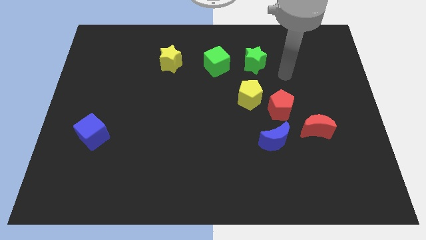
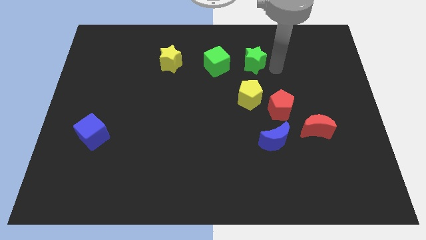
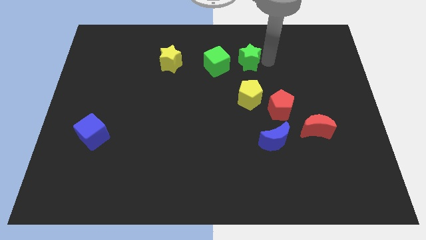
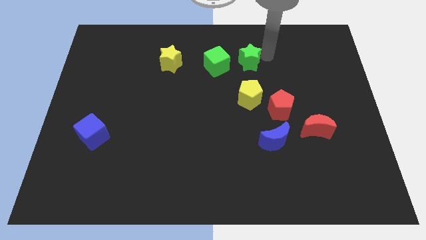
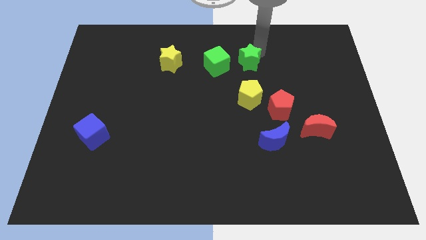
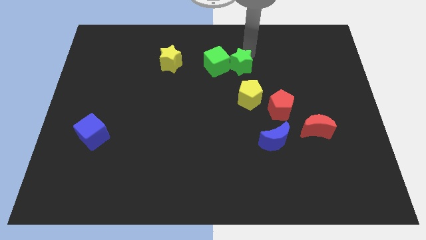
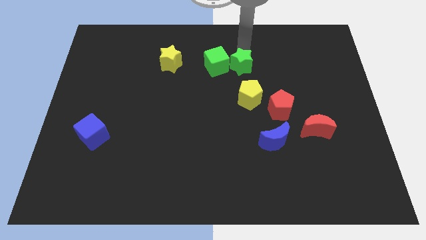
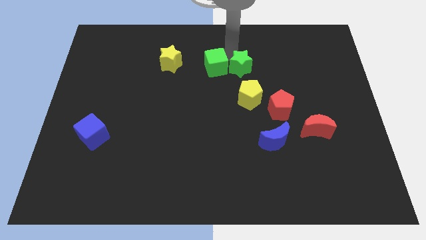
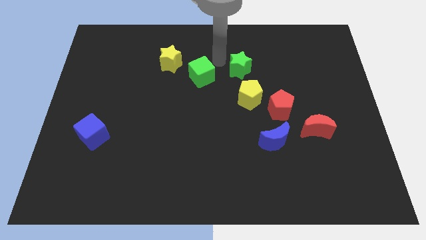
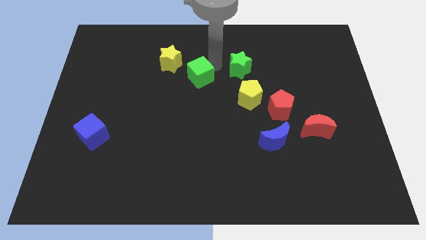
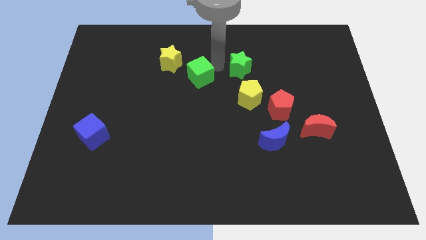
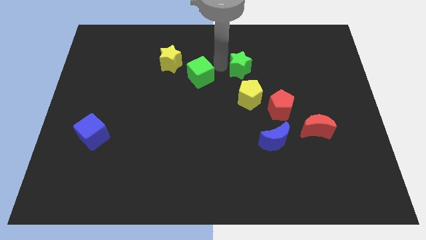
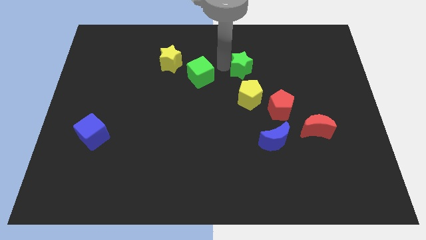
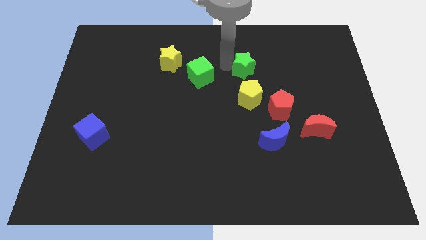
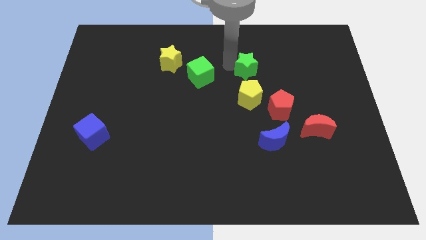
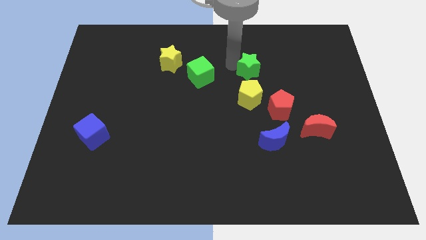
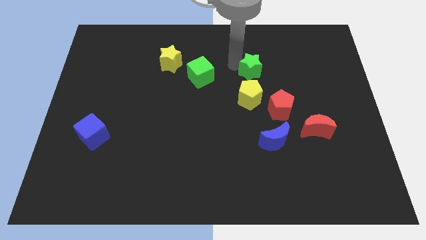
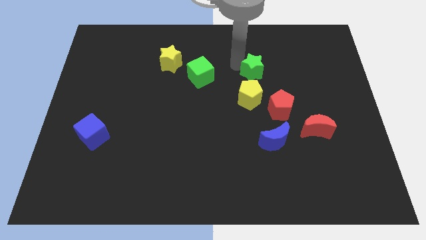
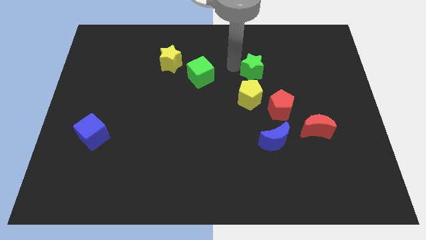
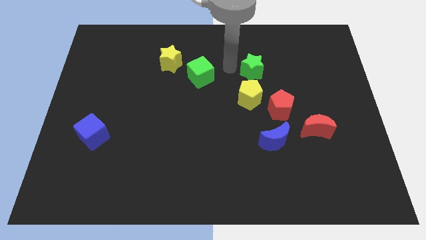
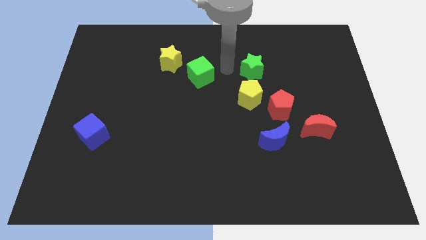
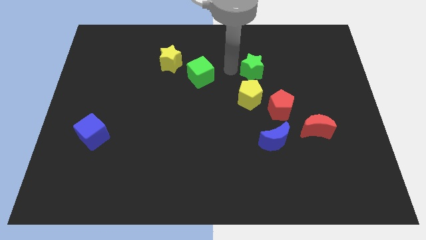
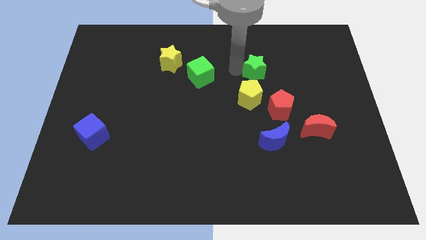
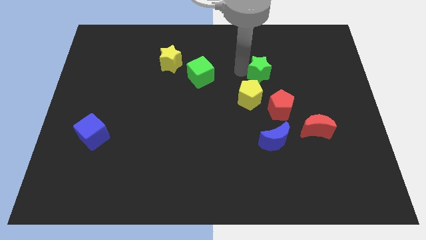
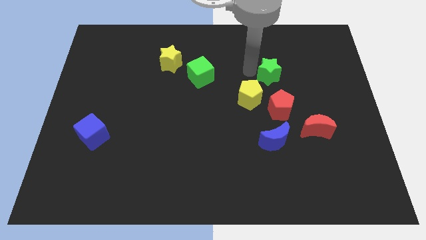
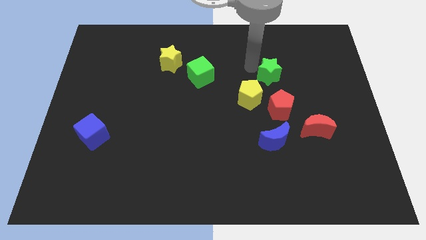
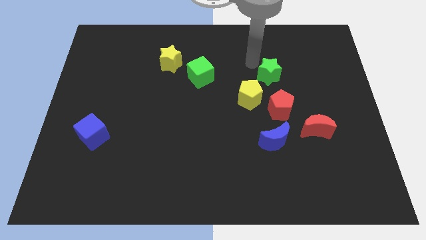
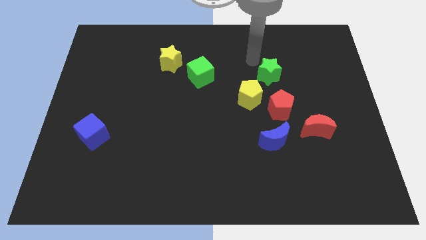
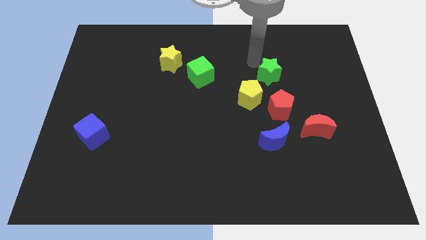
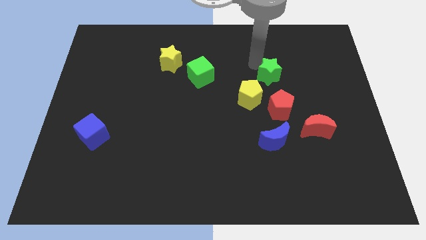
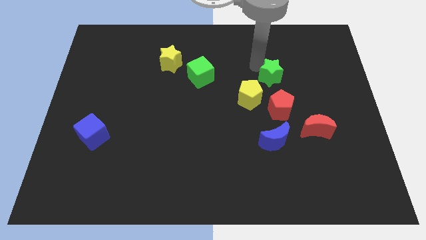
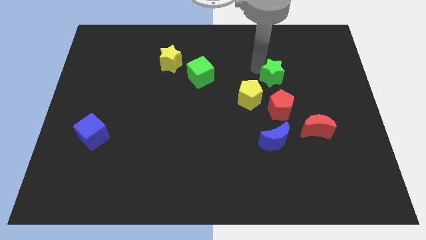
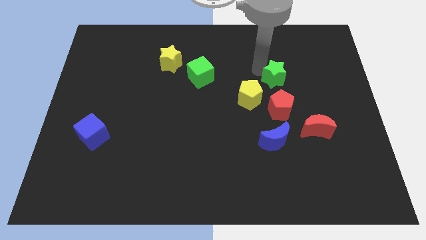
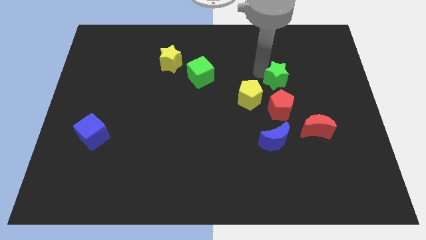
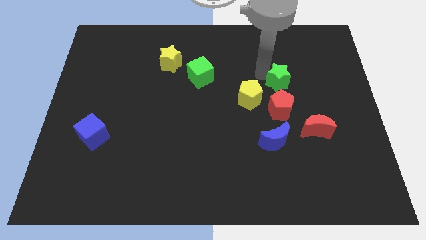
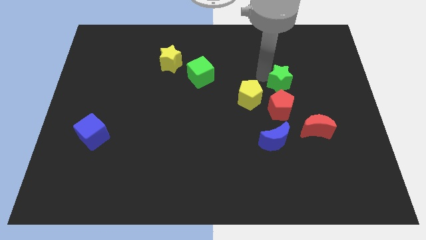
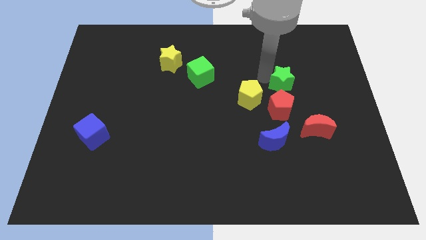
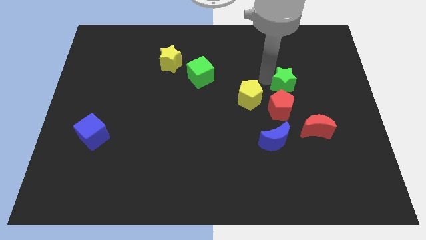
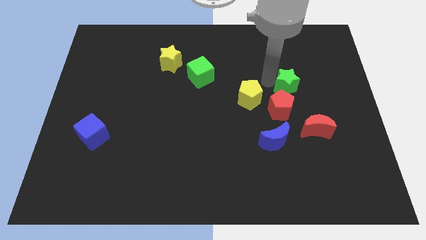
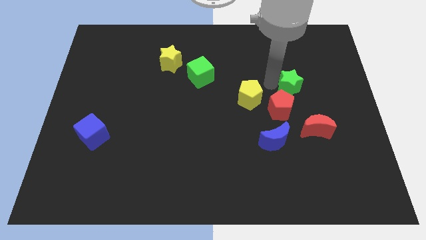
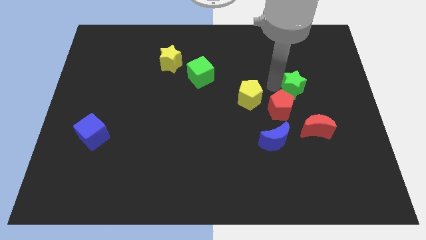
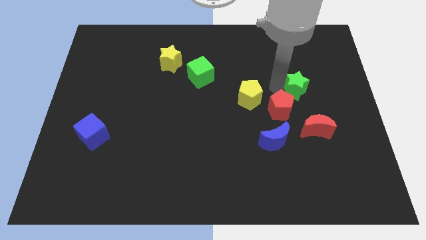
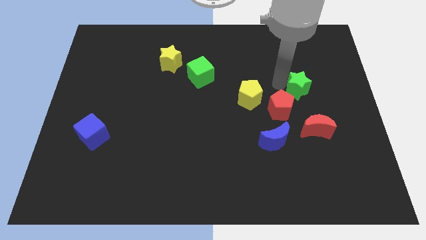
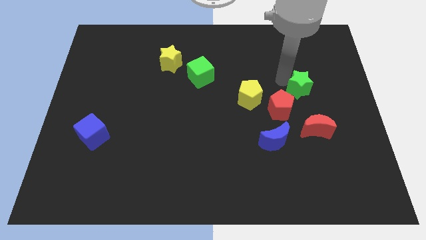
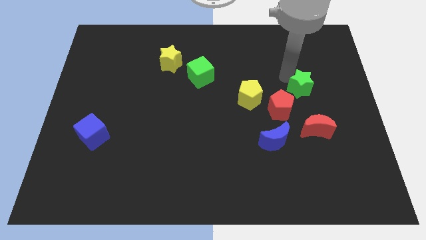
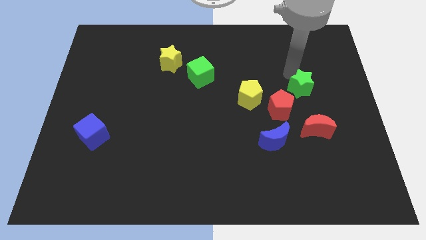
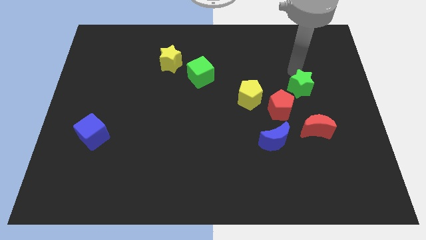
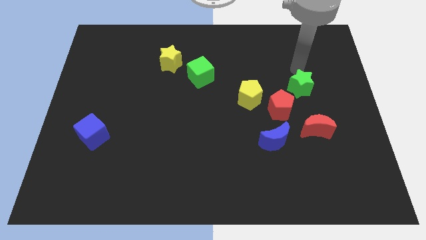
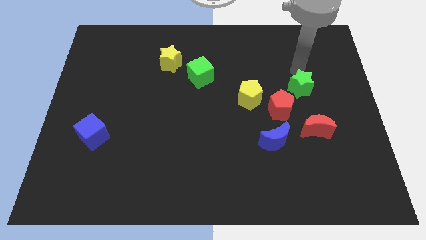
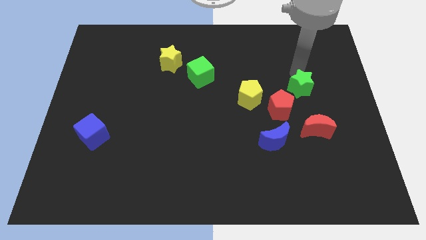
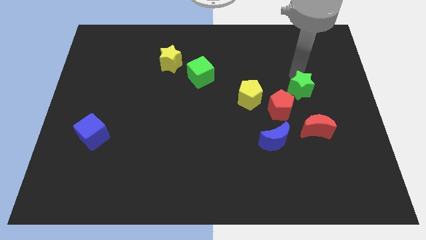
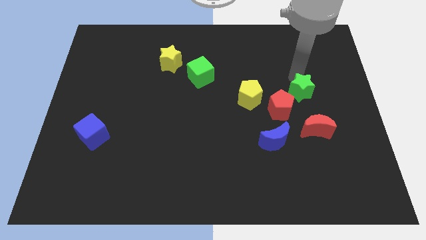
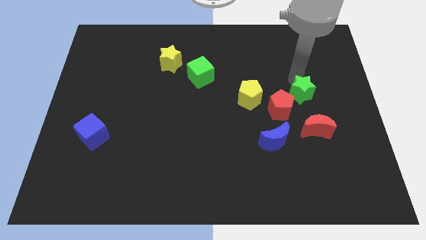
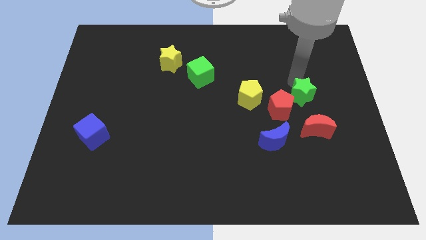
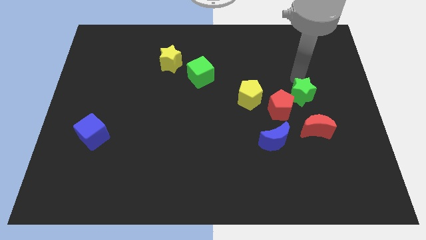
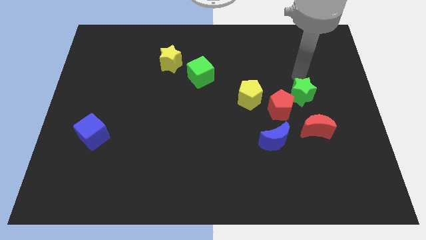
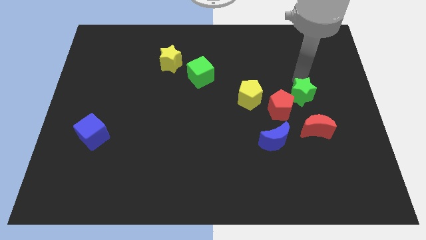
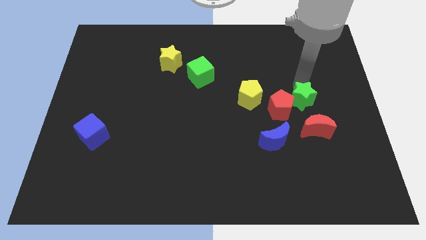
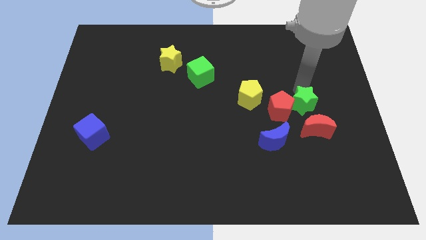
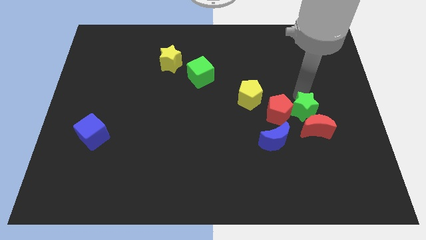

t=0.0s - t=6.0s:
slide the green star to the red moon
